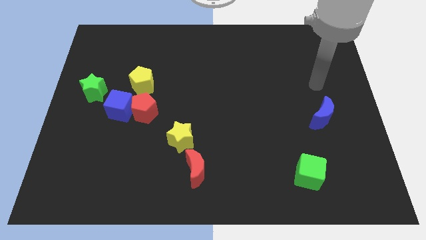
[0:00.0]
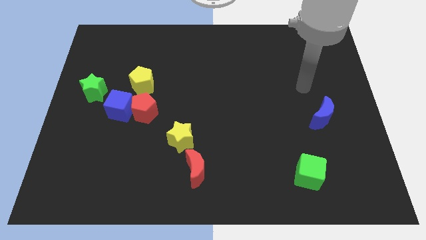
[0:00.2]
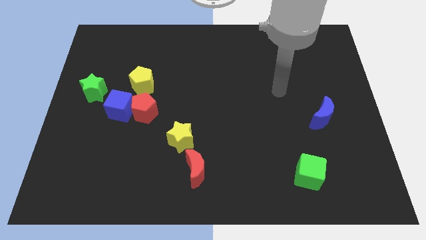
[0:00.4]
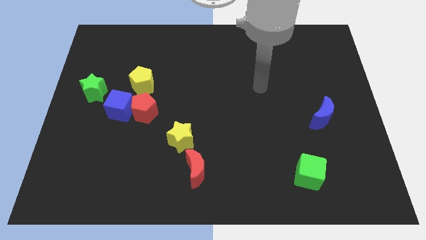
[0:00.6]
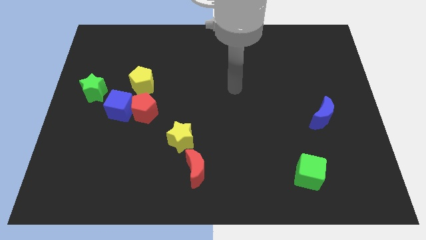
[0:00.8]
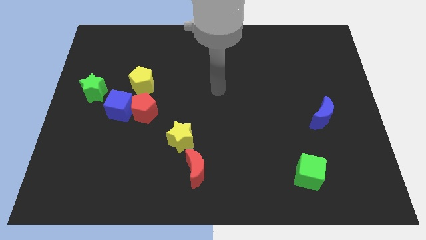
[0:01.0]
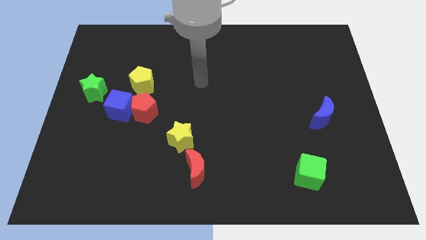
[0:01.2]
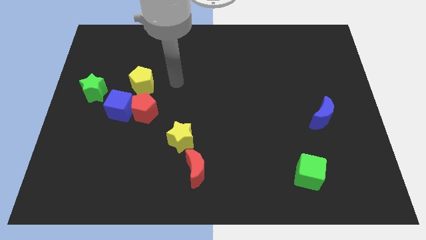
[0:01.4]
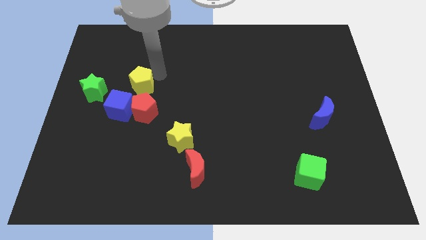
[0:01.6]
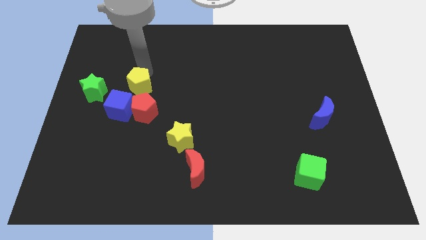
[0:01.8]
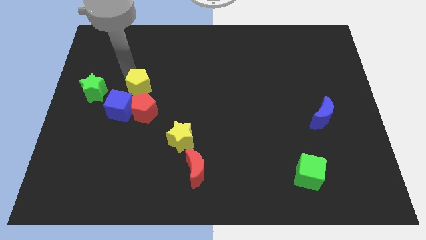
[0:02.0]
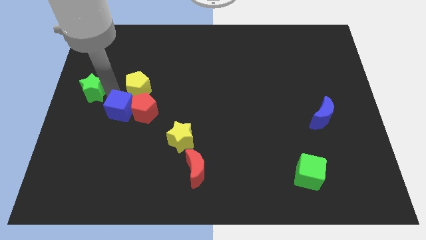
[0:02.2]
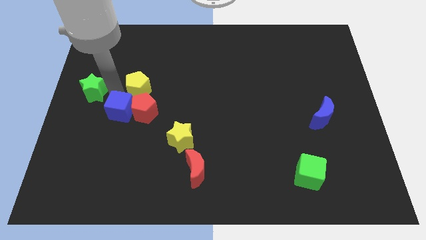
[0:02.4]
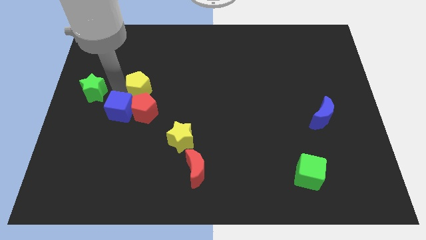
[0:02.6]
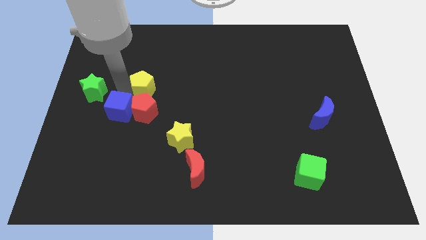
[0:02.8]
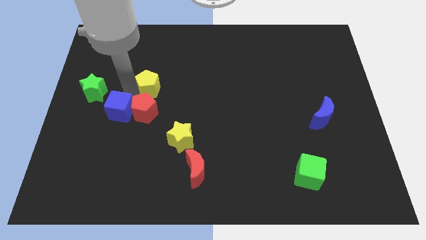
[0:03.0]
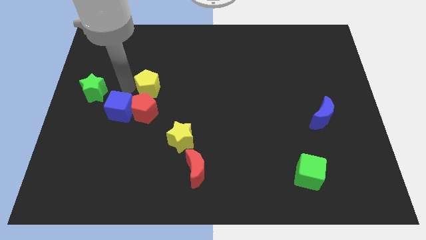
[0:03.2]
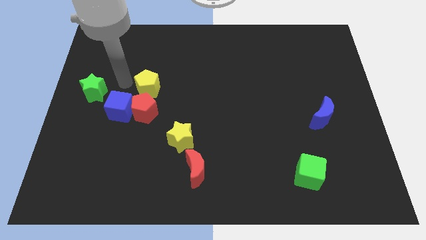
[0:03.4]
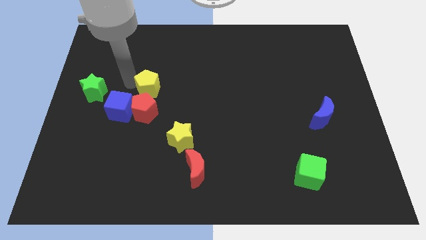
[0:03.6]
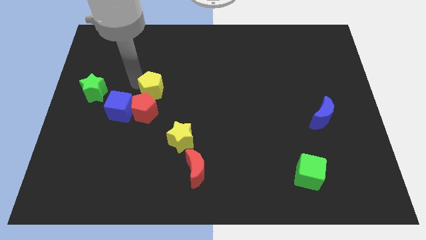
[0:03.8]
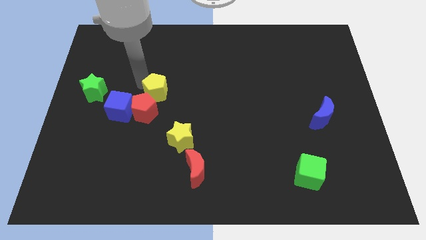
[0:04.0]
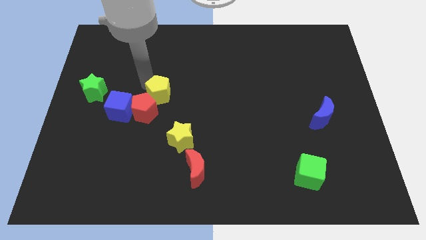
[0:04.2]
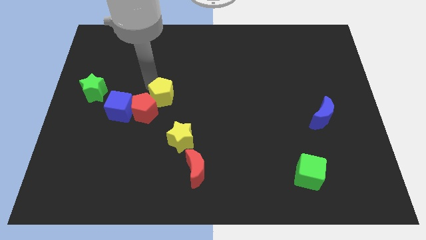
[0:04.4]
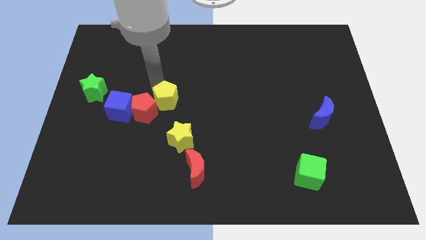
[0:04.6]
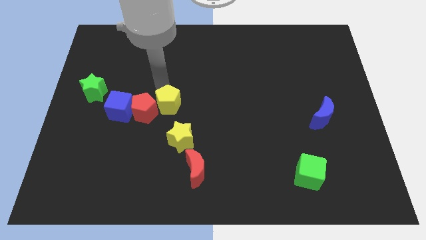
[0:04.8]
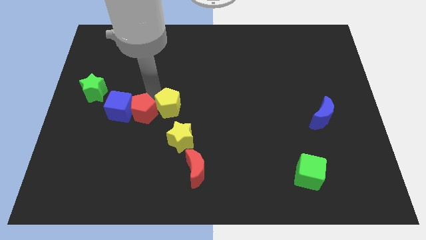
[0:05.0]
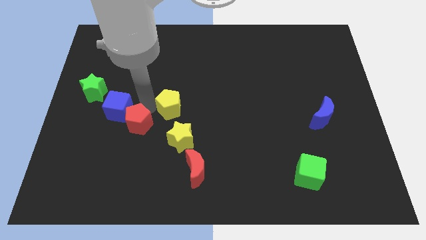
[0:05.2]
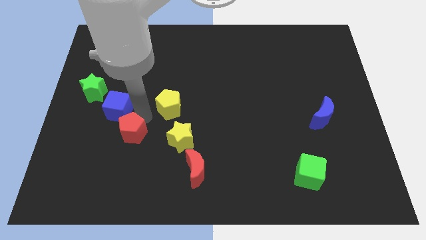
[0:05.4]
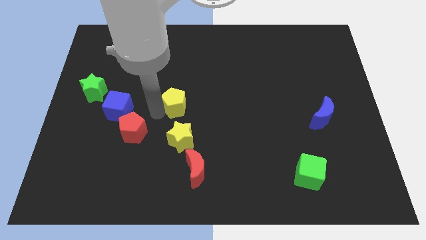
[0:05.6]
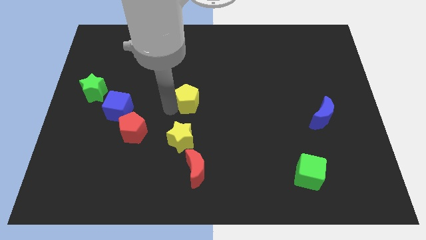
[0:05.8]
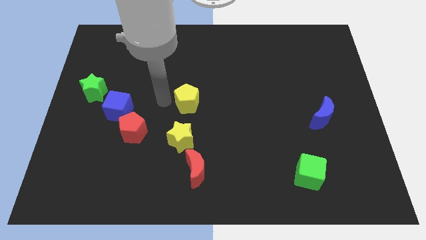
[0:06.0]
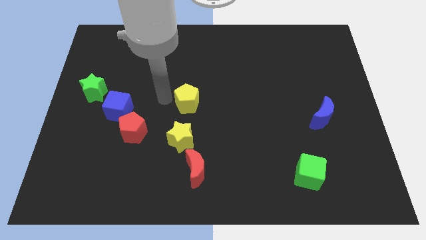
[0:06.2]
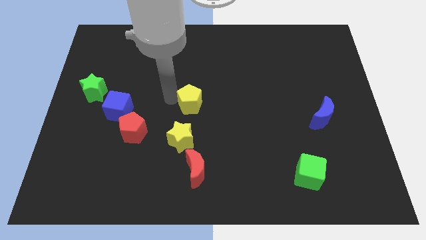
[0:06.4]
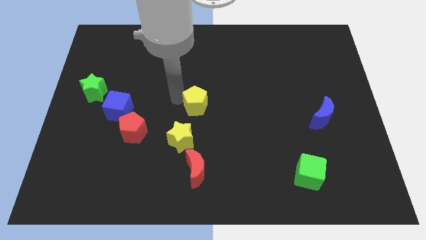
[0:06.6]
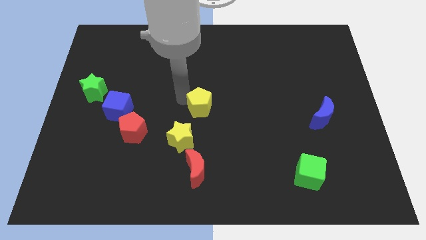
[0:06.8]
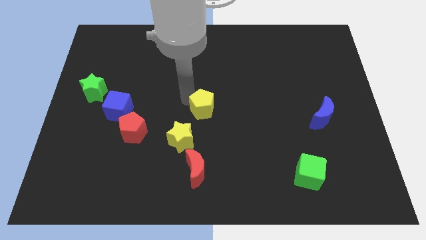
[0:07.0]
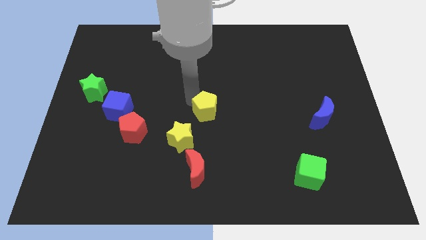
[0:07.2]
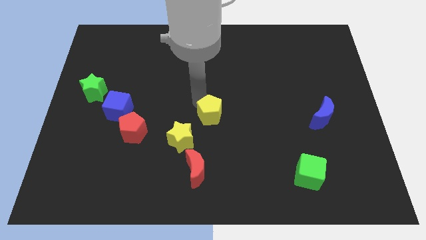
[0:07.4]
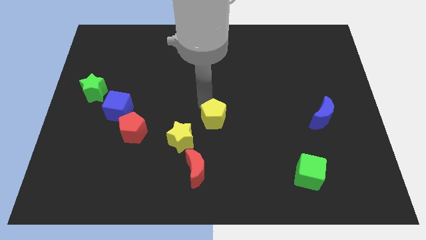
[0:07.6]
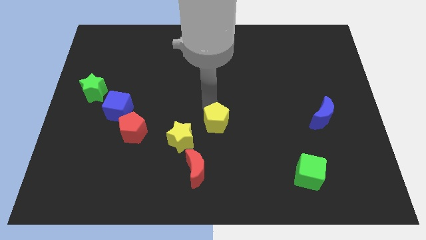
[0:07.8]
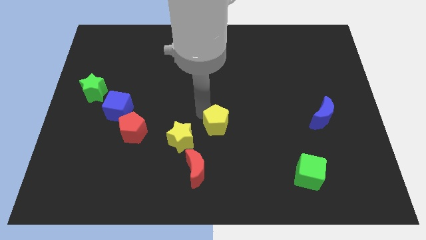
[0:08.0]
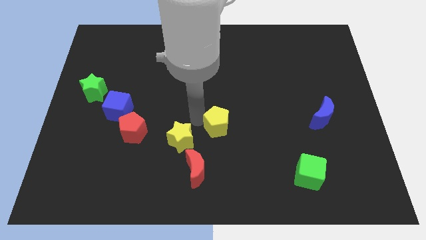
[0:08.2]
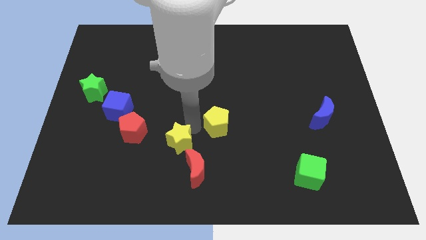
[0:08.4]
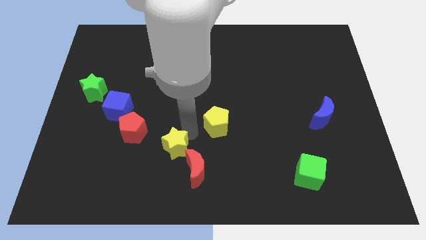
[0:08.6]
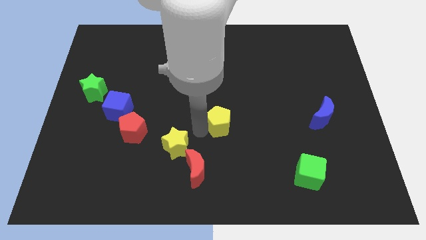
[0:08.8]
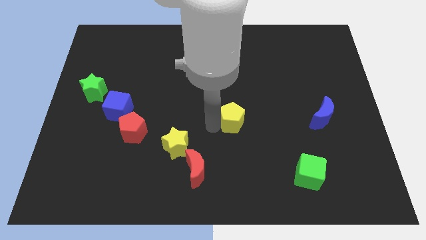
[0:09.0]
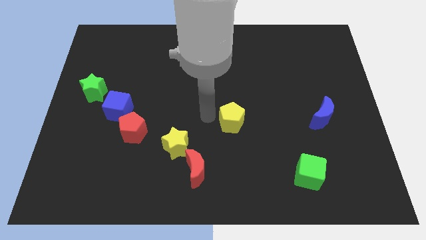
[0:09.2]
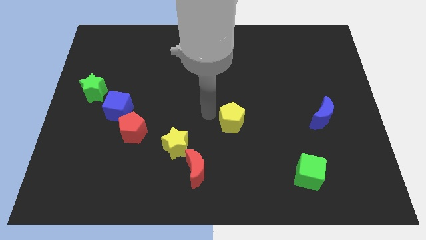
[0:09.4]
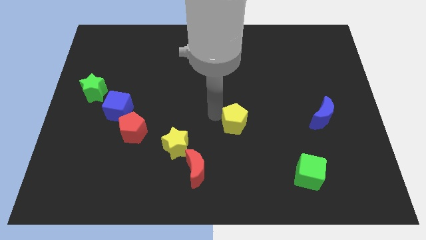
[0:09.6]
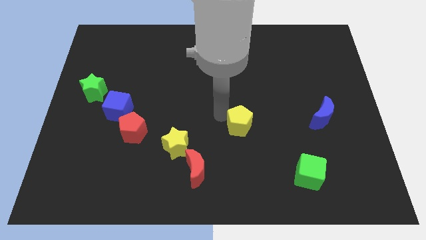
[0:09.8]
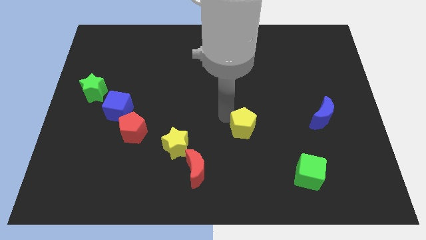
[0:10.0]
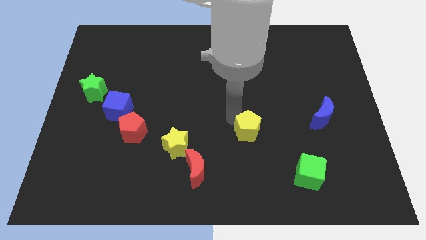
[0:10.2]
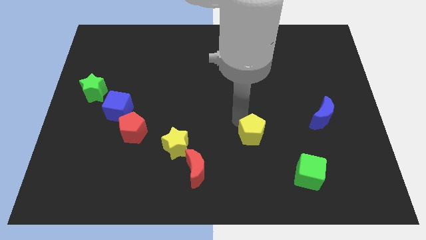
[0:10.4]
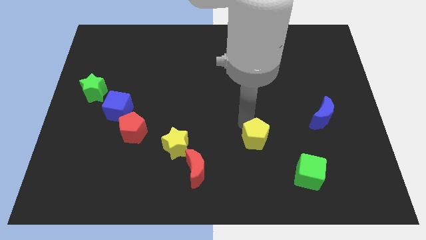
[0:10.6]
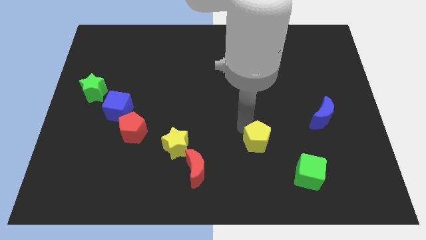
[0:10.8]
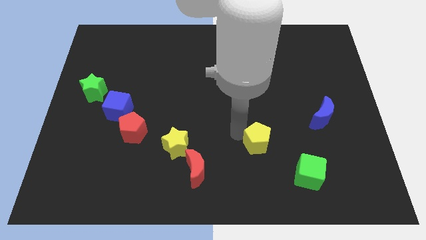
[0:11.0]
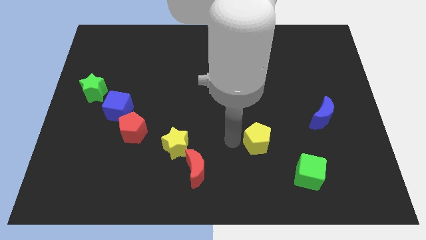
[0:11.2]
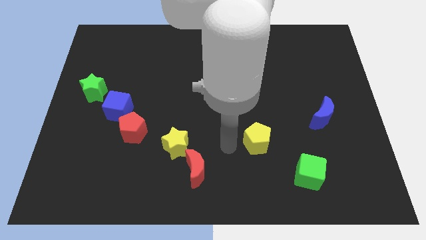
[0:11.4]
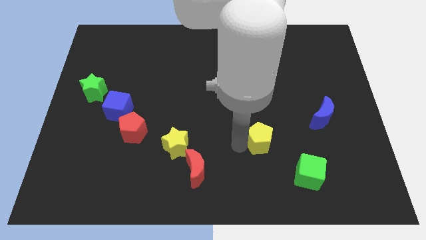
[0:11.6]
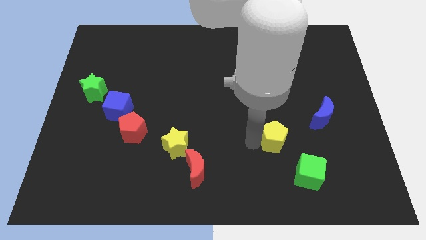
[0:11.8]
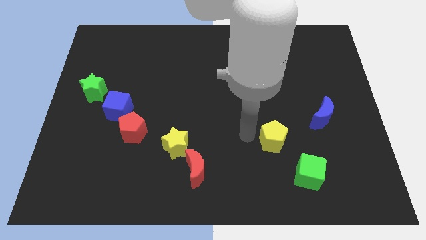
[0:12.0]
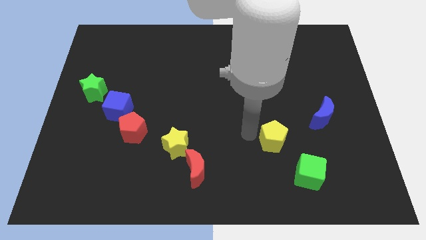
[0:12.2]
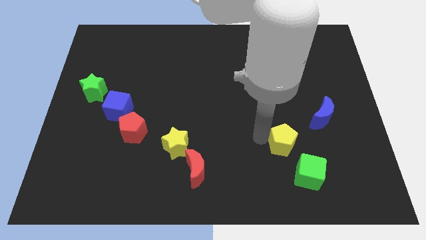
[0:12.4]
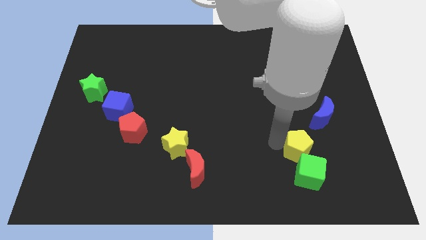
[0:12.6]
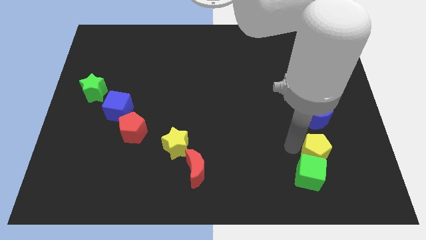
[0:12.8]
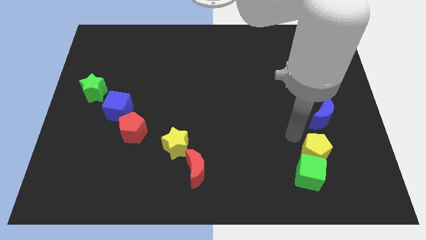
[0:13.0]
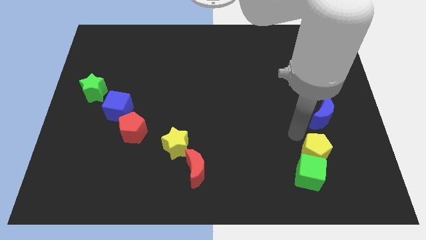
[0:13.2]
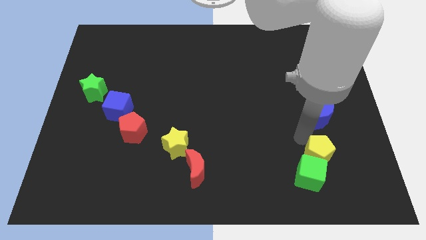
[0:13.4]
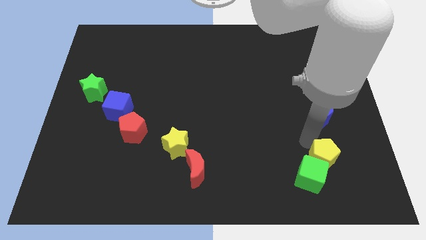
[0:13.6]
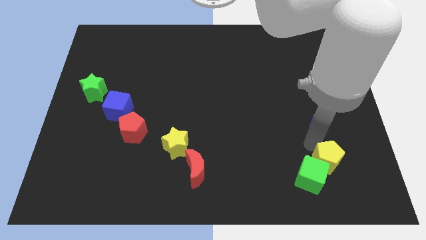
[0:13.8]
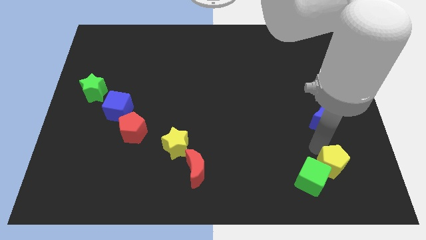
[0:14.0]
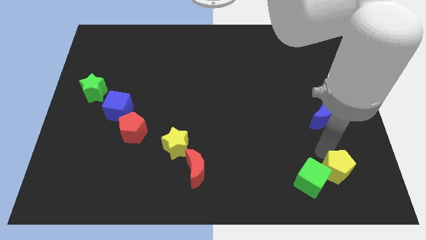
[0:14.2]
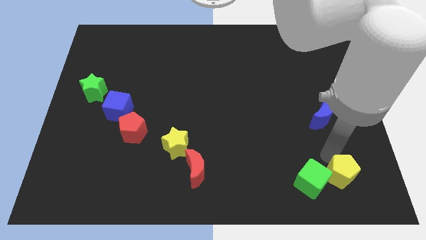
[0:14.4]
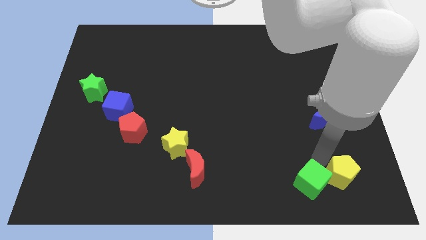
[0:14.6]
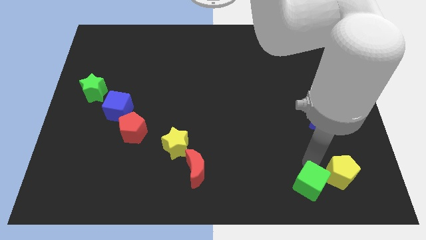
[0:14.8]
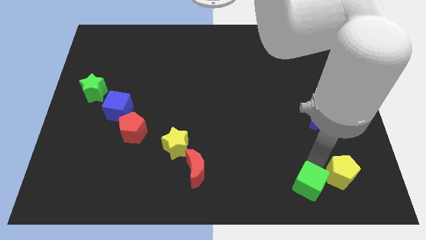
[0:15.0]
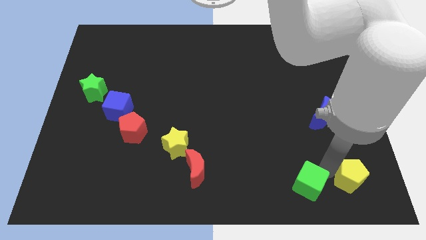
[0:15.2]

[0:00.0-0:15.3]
move the yellow pentagon to the bottom right
